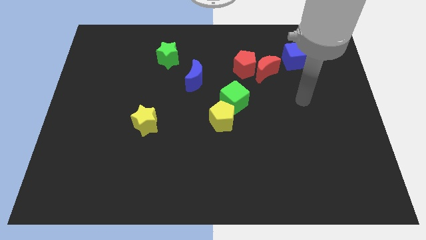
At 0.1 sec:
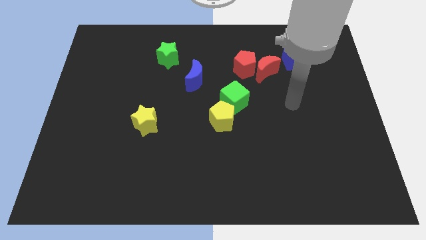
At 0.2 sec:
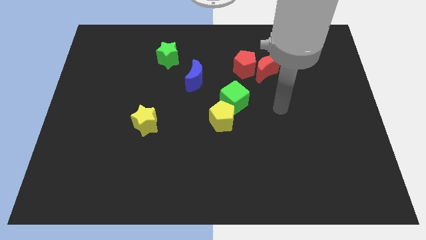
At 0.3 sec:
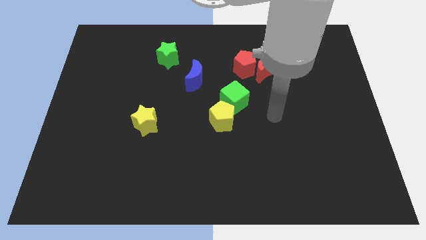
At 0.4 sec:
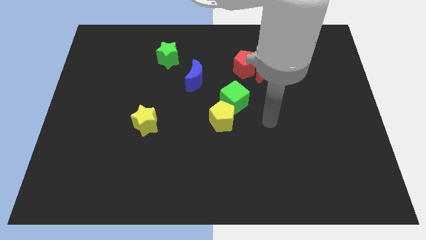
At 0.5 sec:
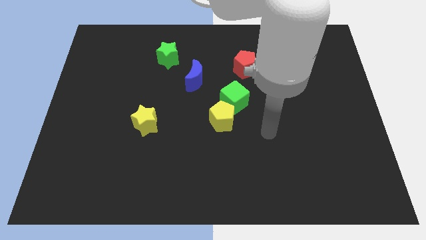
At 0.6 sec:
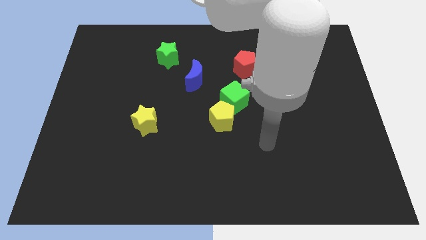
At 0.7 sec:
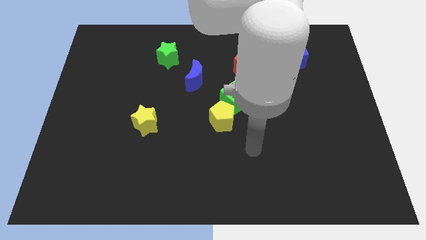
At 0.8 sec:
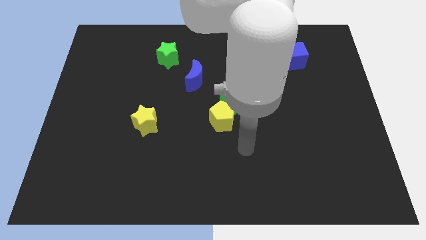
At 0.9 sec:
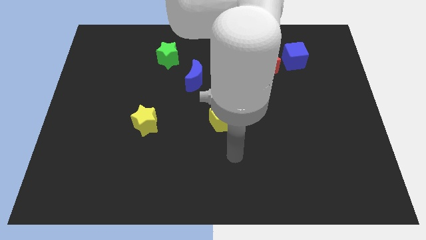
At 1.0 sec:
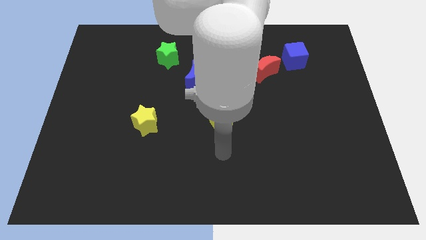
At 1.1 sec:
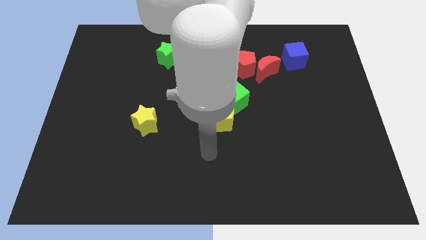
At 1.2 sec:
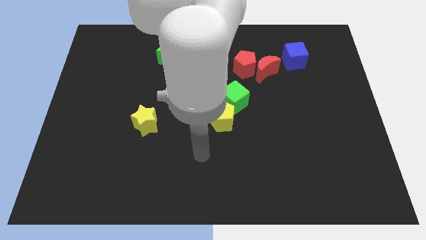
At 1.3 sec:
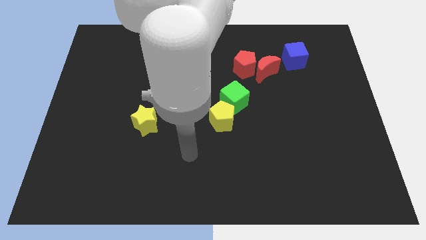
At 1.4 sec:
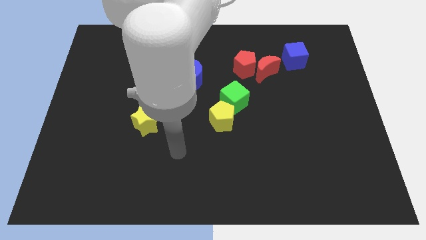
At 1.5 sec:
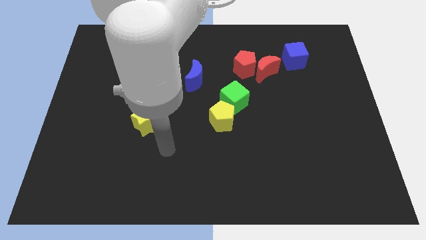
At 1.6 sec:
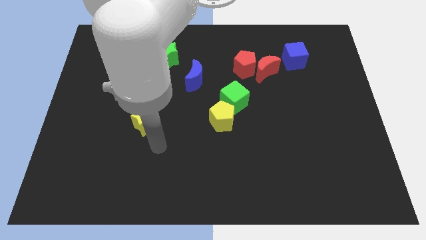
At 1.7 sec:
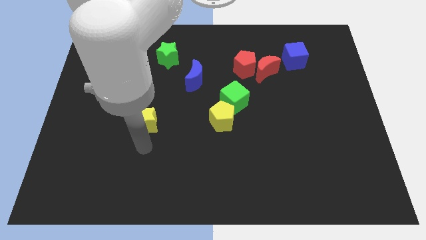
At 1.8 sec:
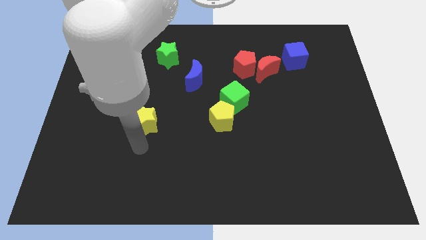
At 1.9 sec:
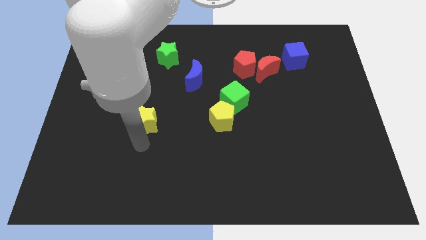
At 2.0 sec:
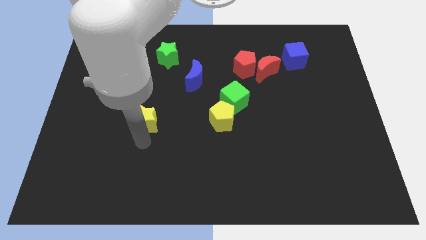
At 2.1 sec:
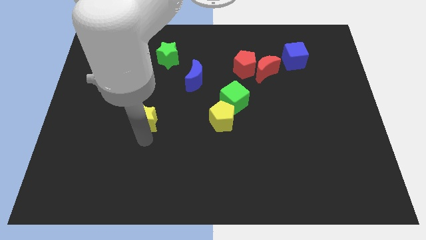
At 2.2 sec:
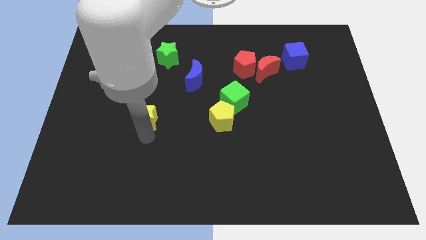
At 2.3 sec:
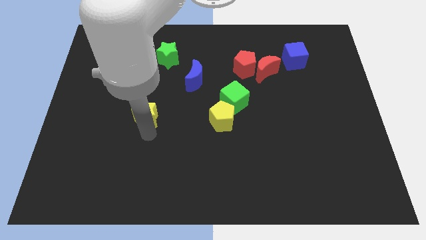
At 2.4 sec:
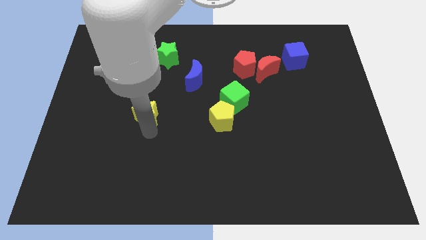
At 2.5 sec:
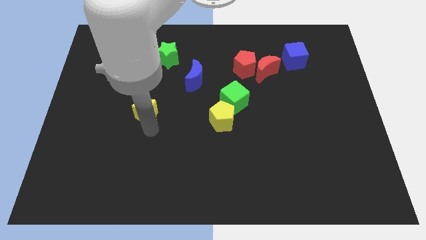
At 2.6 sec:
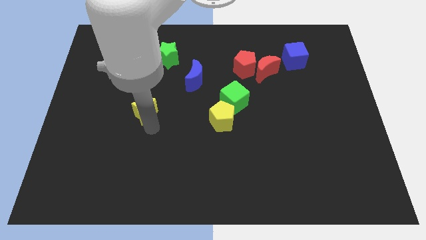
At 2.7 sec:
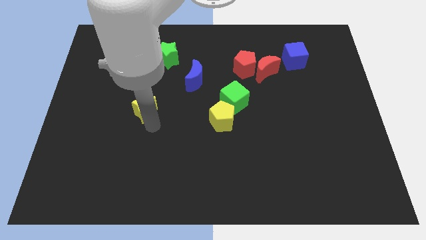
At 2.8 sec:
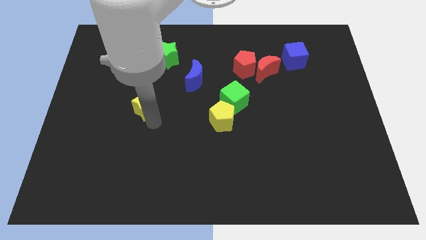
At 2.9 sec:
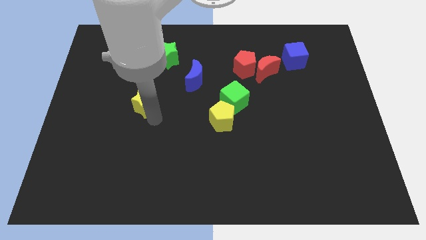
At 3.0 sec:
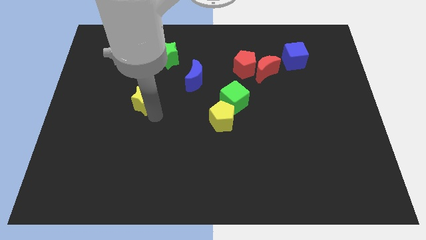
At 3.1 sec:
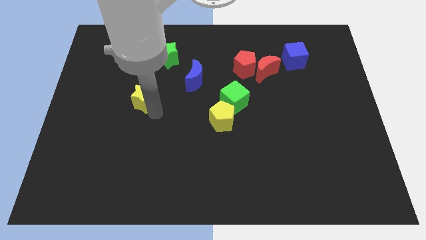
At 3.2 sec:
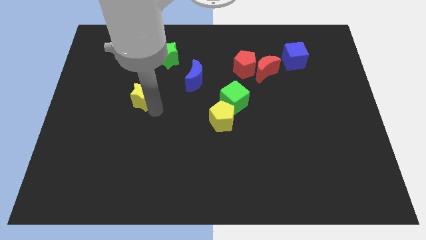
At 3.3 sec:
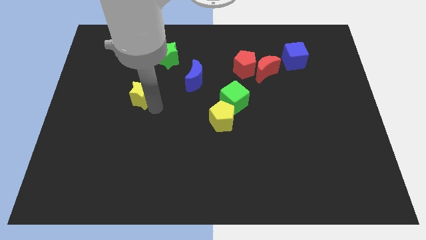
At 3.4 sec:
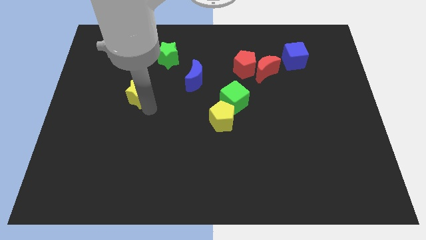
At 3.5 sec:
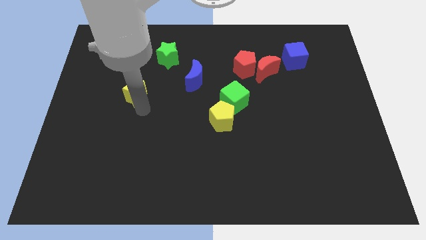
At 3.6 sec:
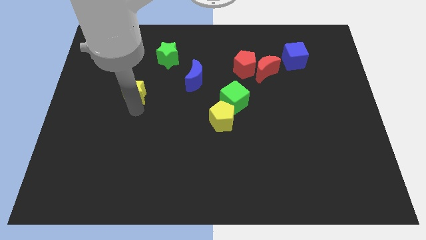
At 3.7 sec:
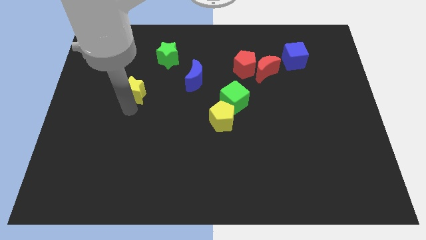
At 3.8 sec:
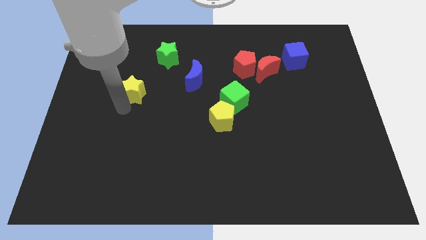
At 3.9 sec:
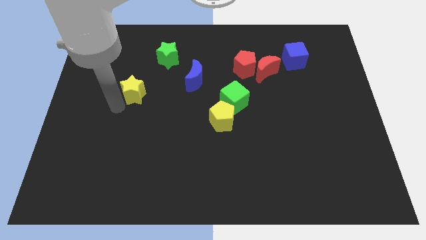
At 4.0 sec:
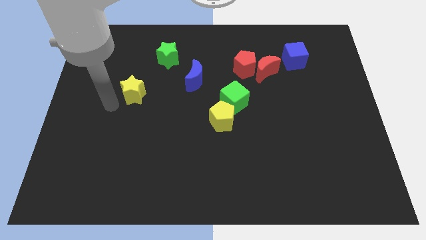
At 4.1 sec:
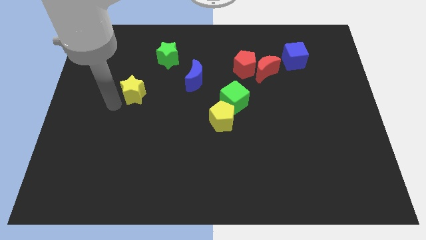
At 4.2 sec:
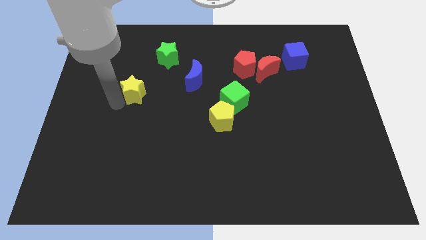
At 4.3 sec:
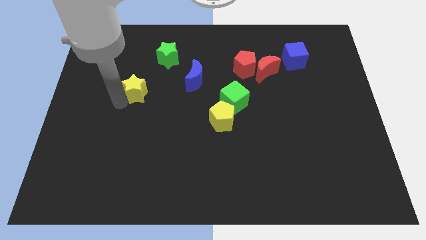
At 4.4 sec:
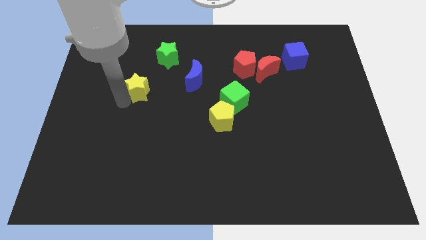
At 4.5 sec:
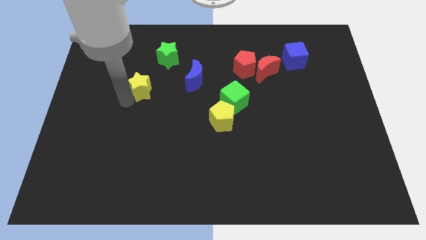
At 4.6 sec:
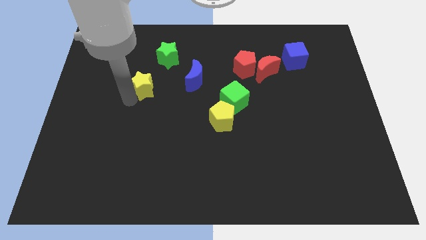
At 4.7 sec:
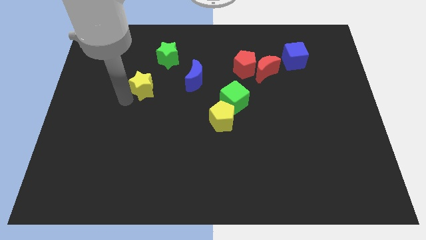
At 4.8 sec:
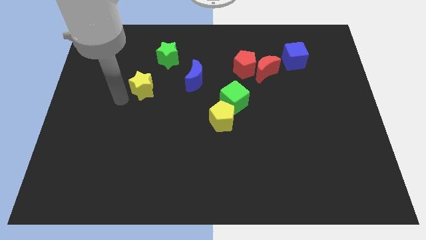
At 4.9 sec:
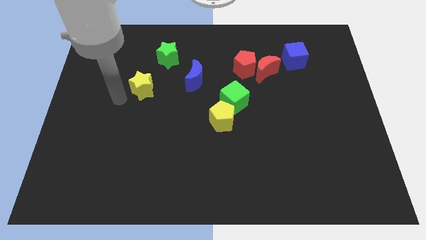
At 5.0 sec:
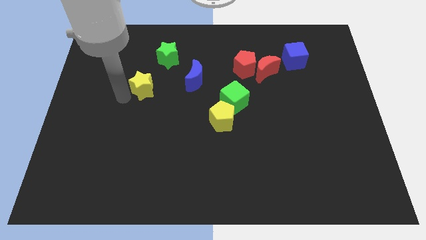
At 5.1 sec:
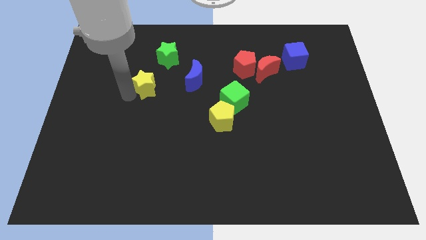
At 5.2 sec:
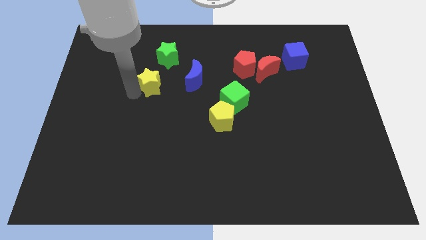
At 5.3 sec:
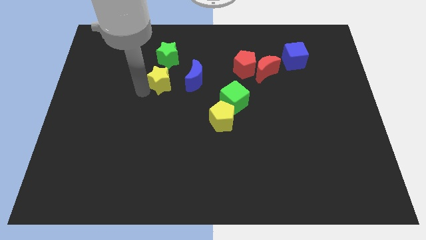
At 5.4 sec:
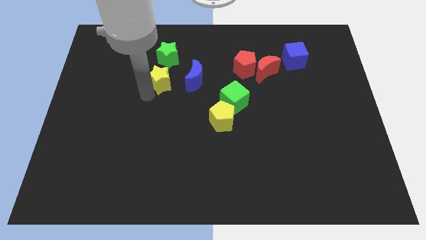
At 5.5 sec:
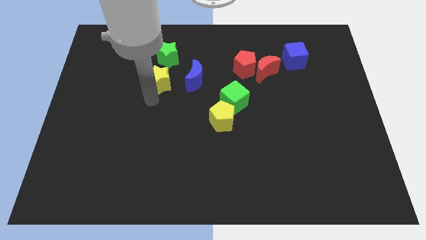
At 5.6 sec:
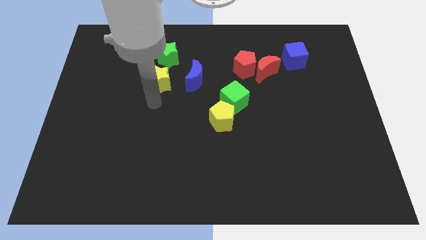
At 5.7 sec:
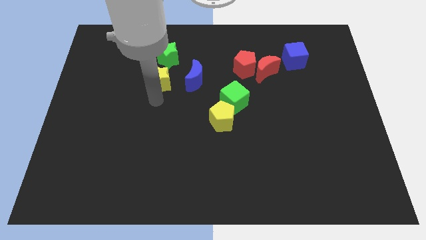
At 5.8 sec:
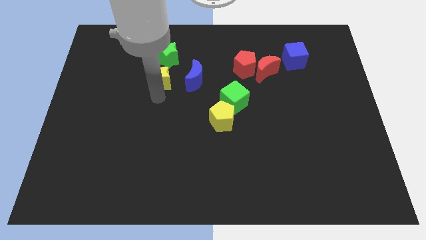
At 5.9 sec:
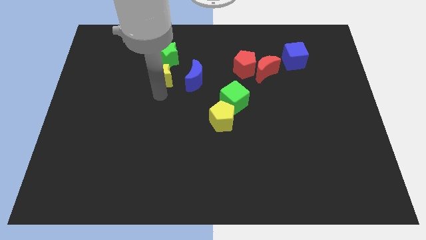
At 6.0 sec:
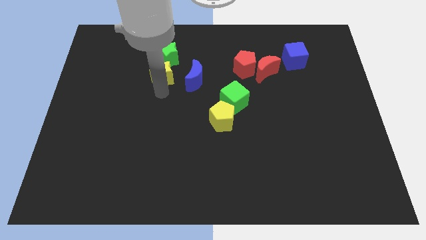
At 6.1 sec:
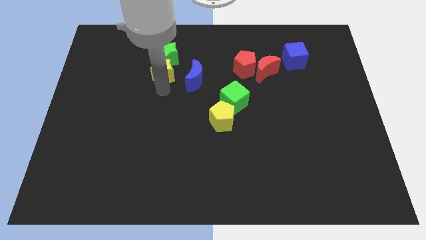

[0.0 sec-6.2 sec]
put the yellow star close to the green star

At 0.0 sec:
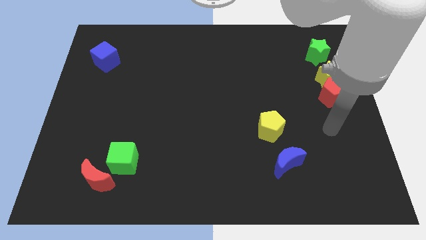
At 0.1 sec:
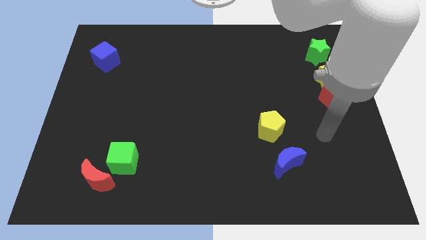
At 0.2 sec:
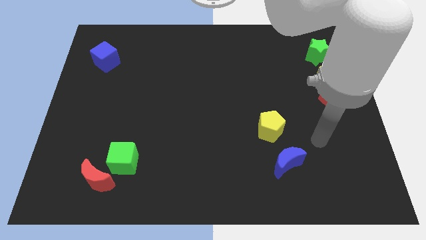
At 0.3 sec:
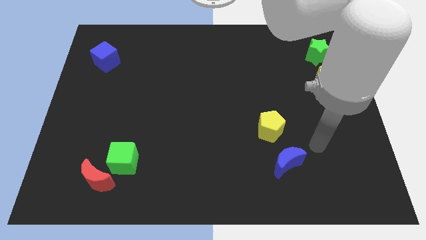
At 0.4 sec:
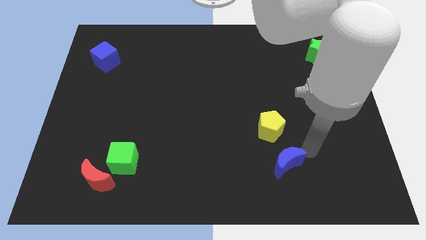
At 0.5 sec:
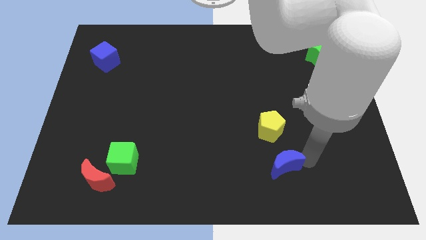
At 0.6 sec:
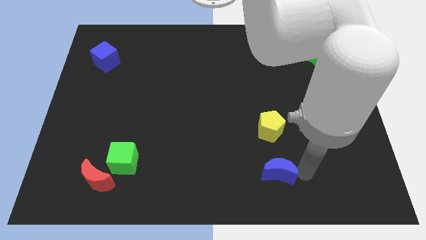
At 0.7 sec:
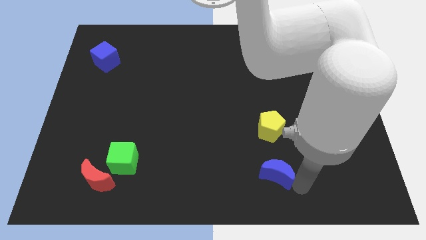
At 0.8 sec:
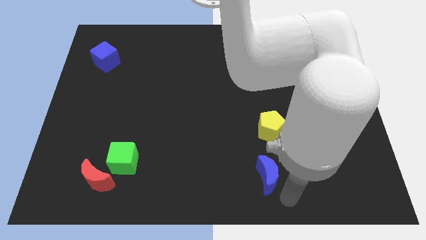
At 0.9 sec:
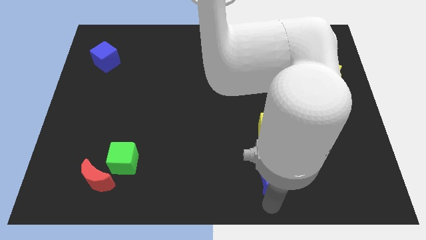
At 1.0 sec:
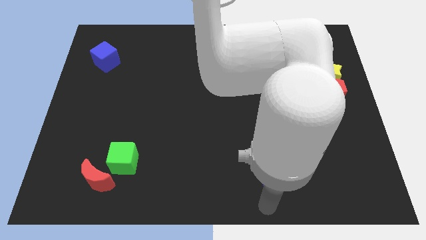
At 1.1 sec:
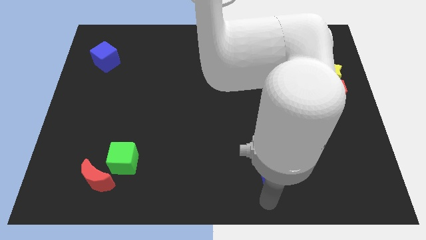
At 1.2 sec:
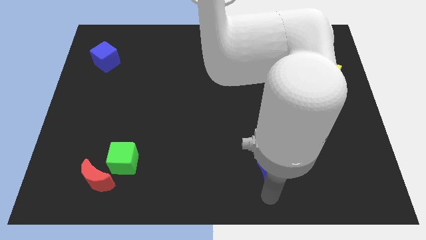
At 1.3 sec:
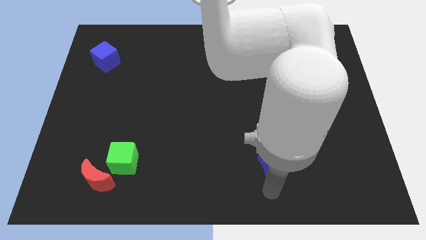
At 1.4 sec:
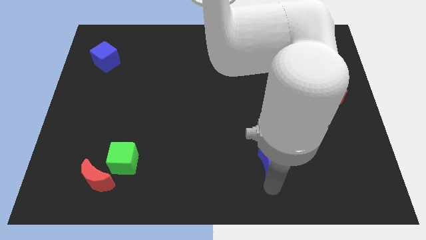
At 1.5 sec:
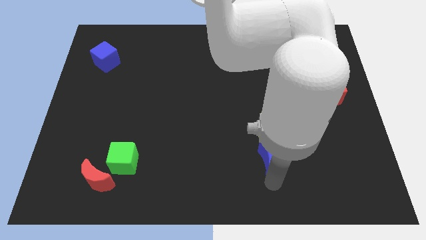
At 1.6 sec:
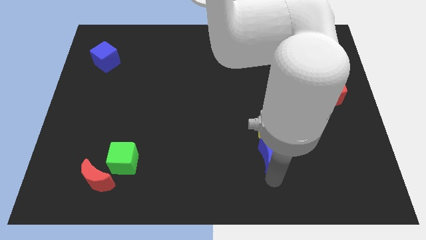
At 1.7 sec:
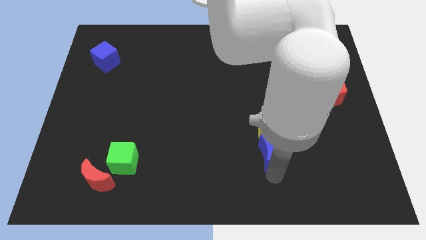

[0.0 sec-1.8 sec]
move the blue moon next to the yellow pentagon
